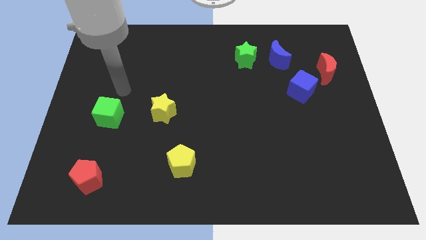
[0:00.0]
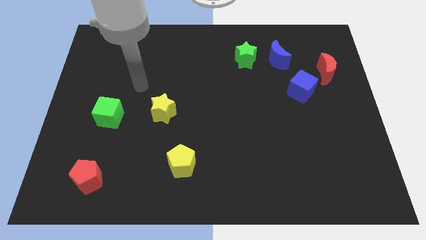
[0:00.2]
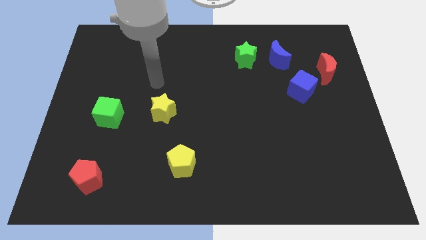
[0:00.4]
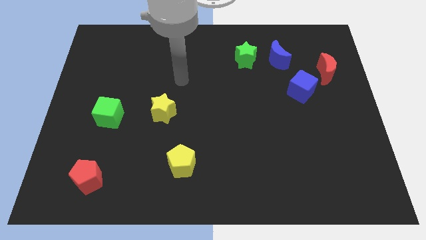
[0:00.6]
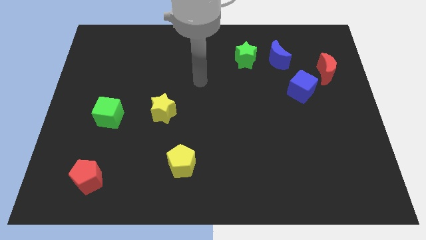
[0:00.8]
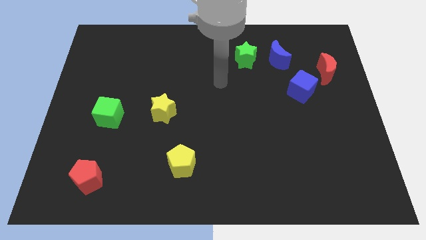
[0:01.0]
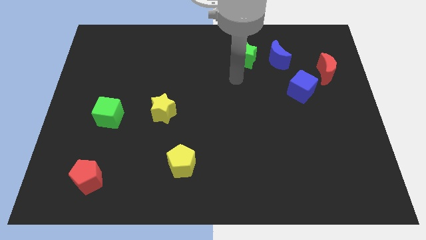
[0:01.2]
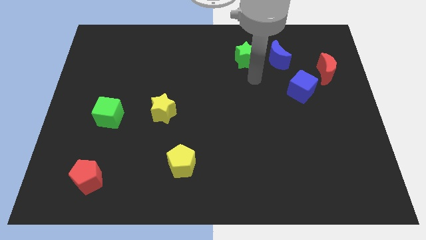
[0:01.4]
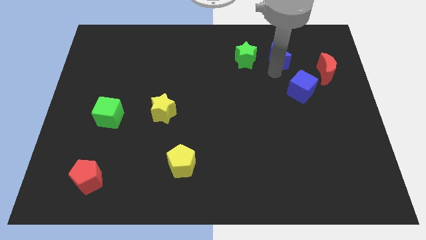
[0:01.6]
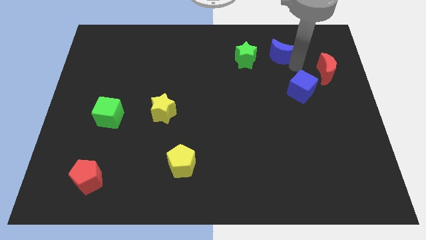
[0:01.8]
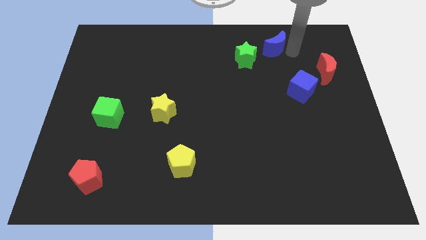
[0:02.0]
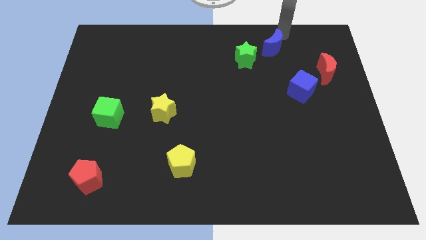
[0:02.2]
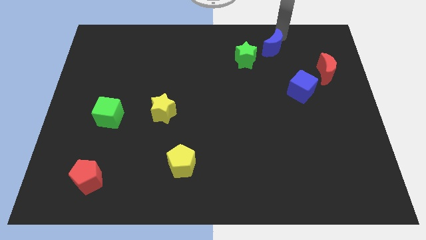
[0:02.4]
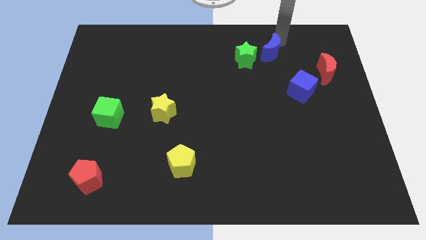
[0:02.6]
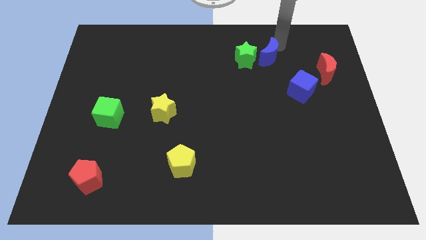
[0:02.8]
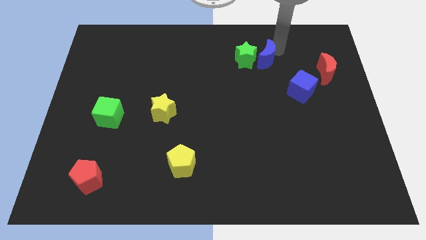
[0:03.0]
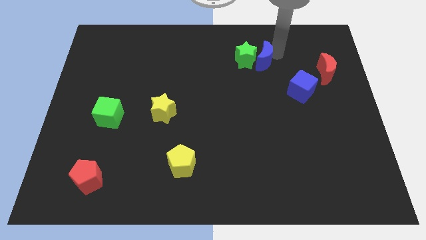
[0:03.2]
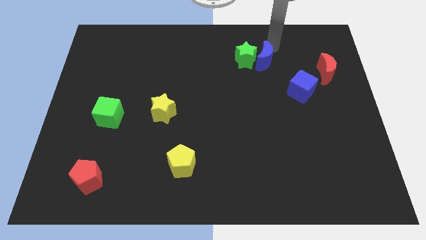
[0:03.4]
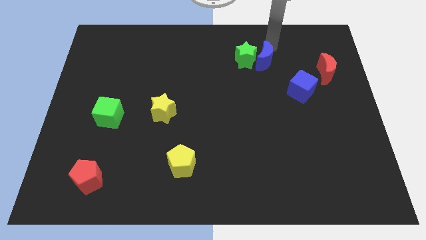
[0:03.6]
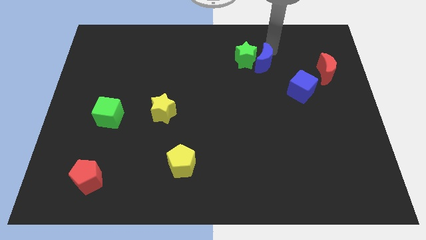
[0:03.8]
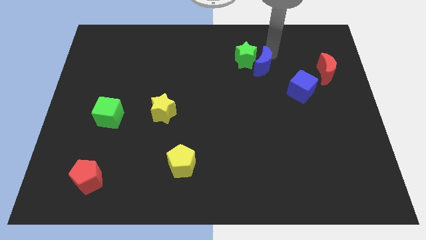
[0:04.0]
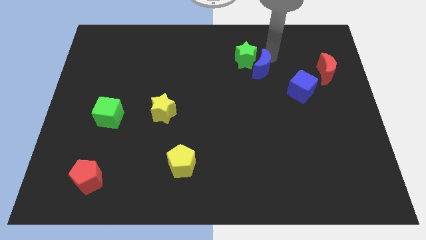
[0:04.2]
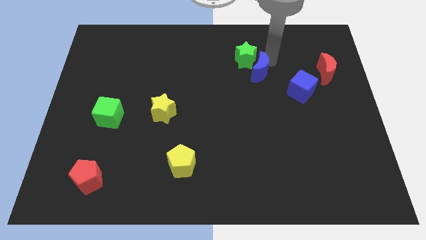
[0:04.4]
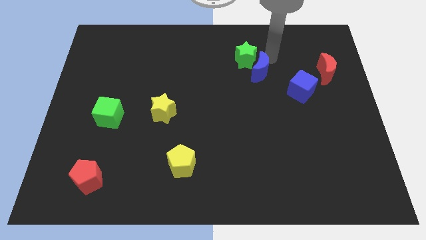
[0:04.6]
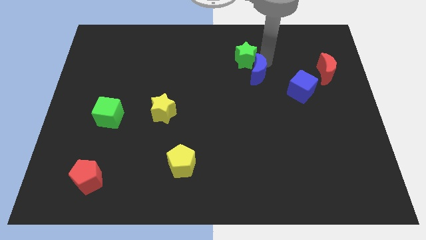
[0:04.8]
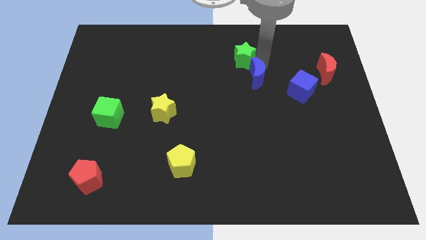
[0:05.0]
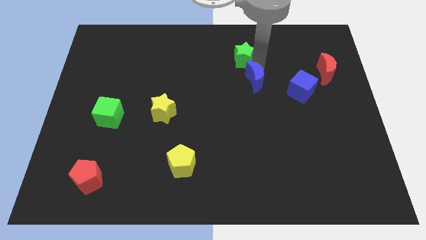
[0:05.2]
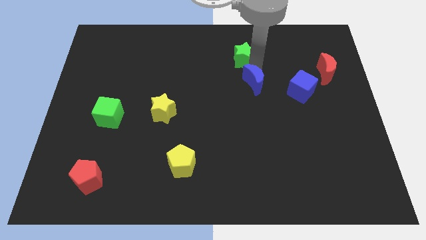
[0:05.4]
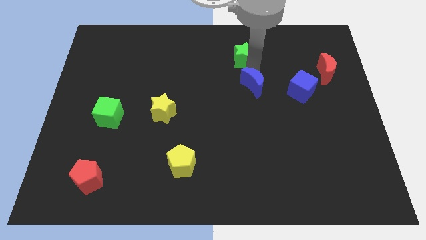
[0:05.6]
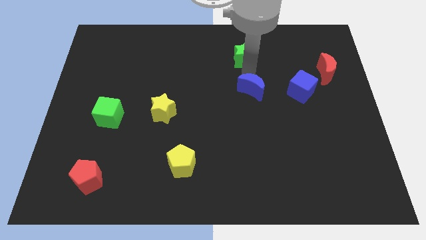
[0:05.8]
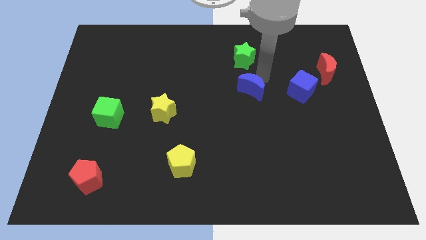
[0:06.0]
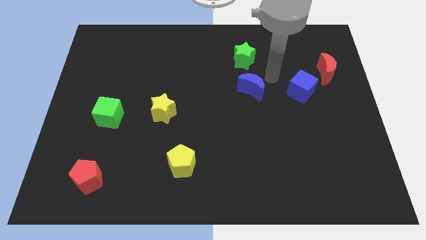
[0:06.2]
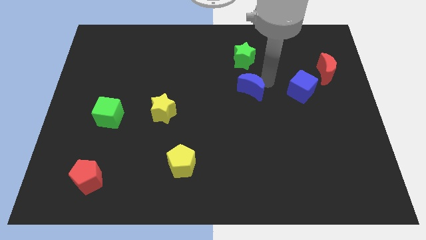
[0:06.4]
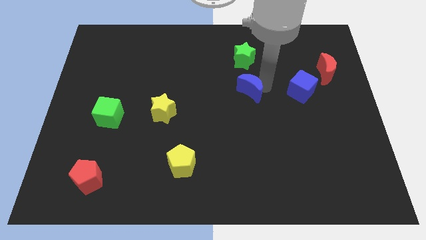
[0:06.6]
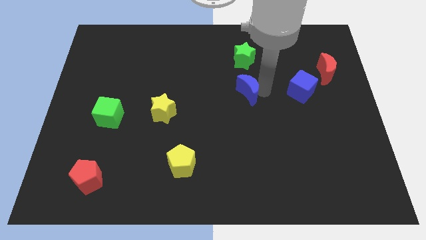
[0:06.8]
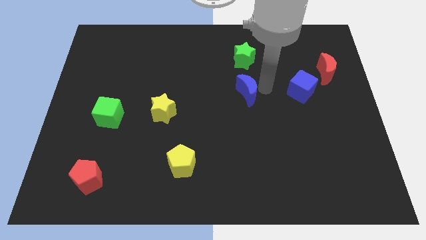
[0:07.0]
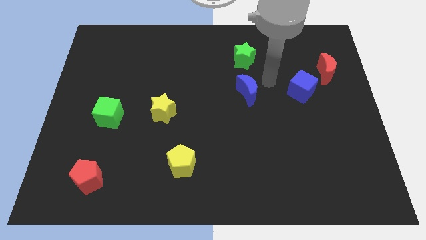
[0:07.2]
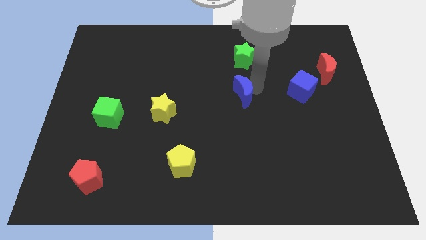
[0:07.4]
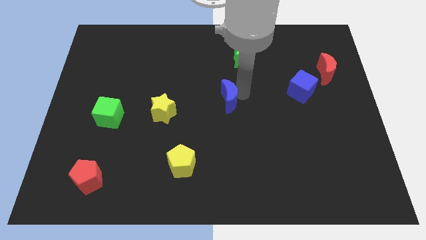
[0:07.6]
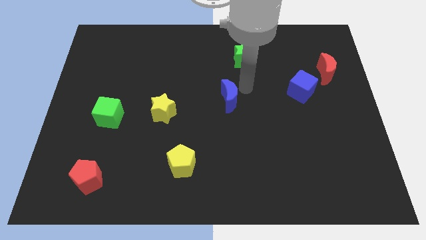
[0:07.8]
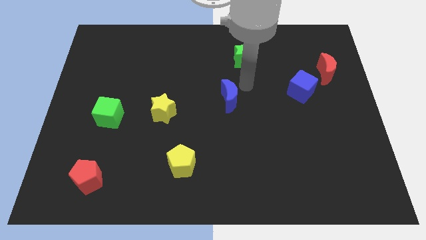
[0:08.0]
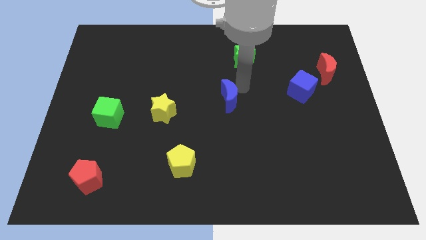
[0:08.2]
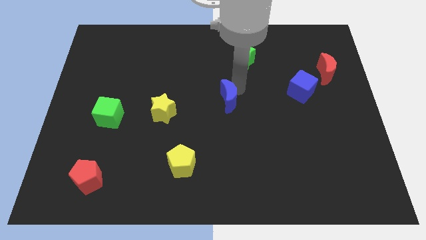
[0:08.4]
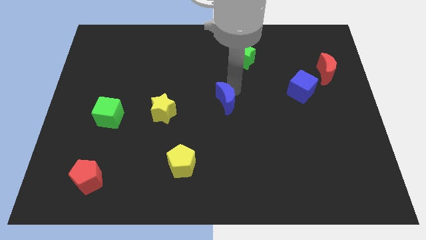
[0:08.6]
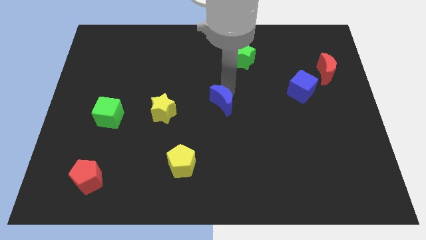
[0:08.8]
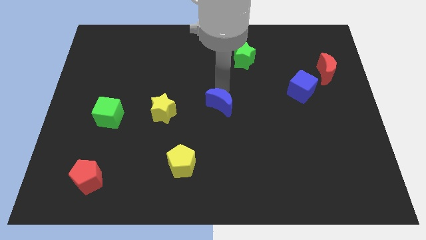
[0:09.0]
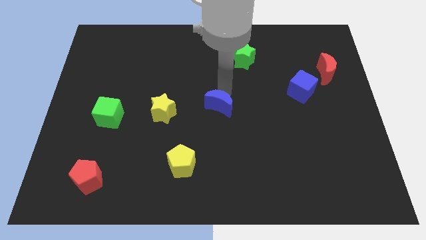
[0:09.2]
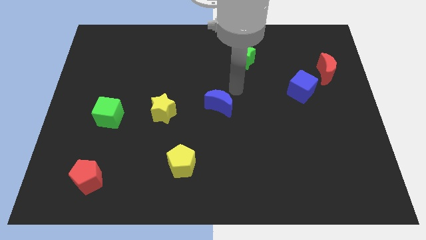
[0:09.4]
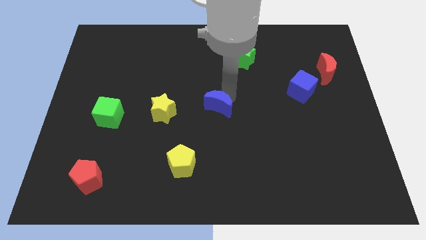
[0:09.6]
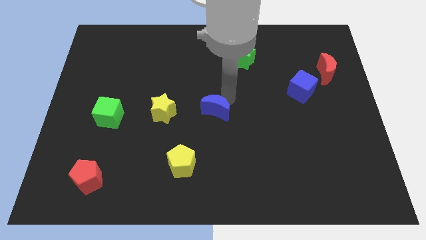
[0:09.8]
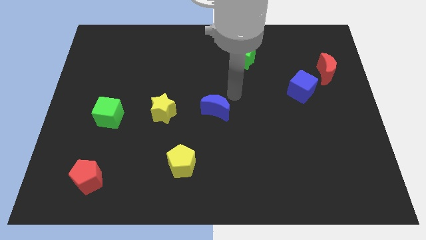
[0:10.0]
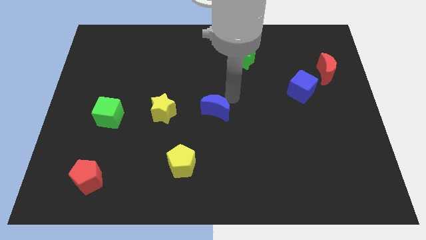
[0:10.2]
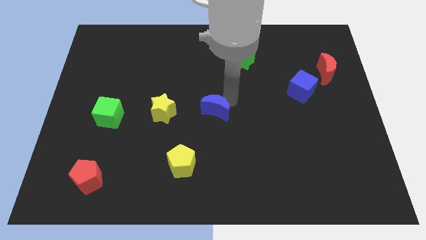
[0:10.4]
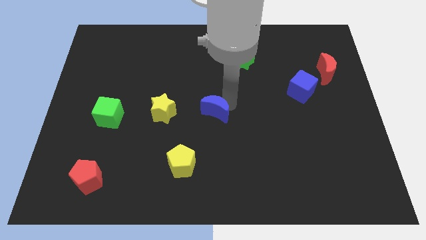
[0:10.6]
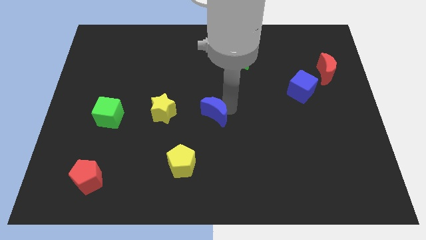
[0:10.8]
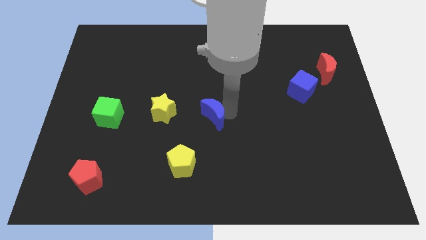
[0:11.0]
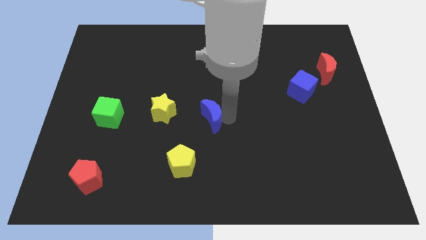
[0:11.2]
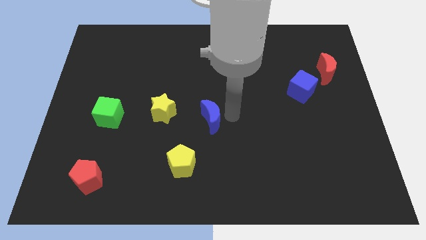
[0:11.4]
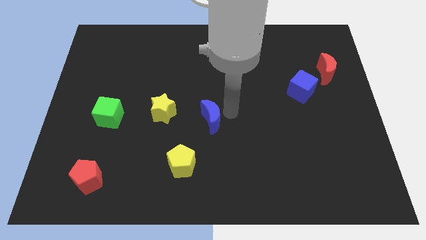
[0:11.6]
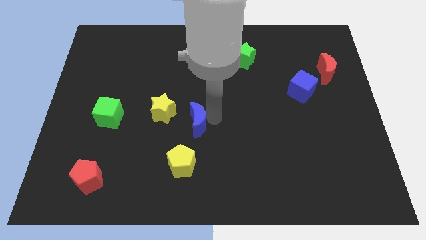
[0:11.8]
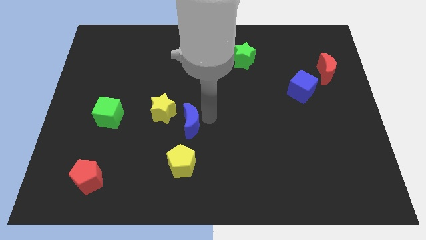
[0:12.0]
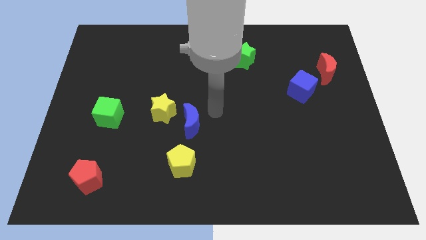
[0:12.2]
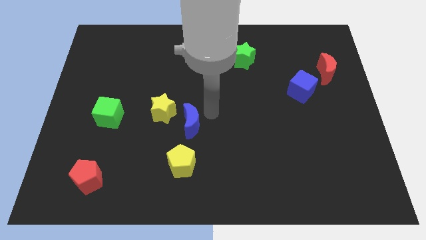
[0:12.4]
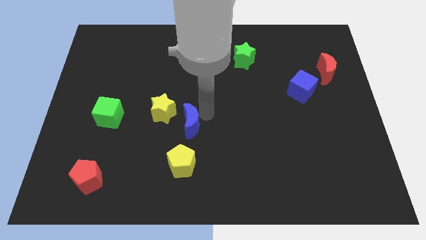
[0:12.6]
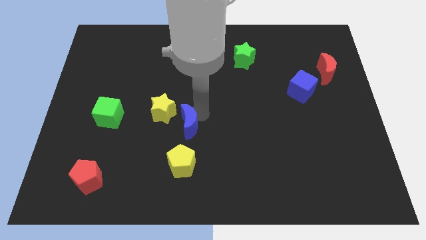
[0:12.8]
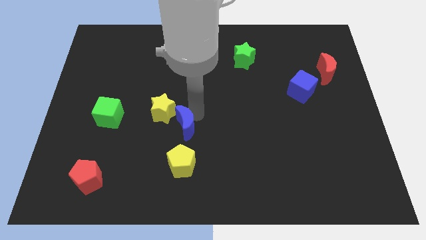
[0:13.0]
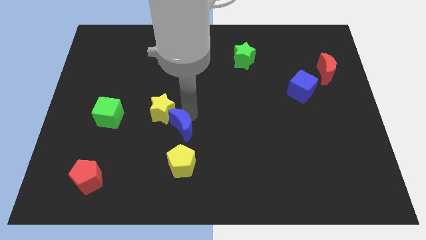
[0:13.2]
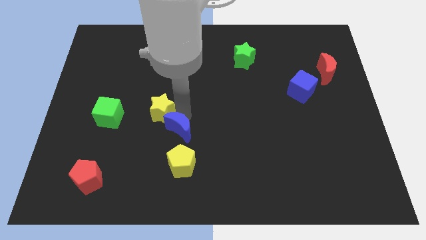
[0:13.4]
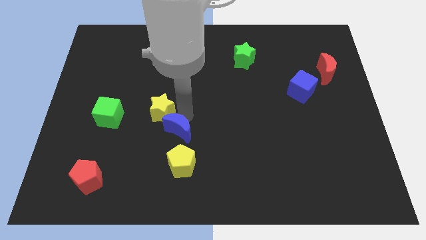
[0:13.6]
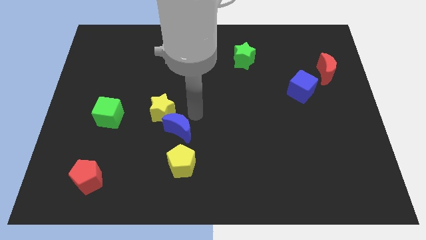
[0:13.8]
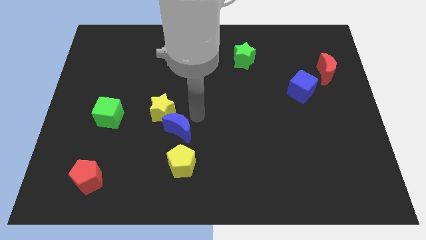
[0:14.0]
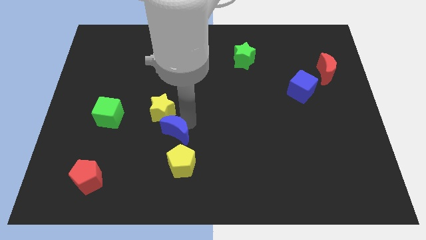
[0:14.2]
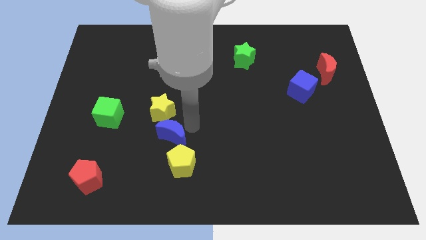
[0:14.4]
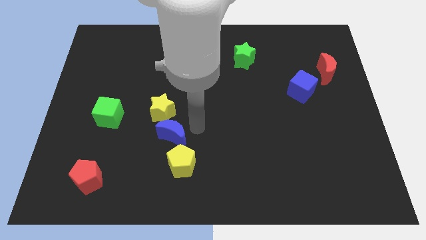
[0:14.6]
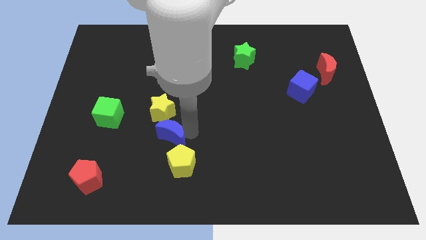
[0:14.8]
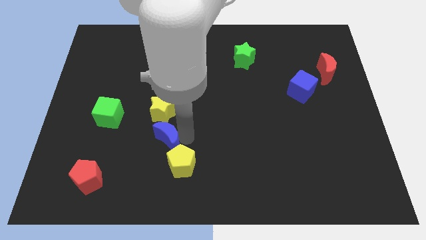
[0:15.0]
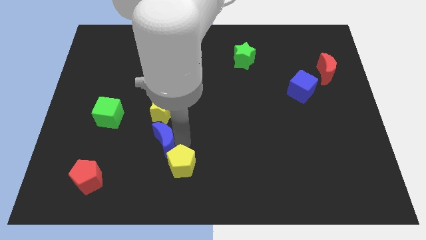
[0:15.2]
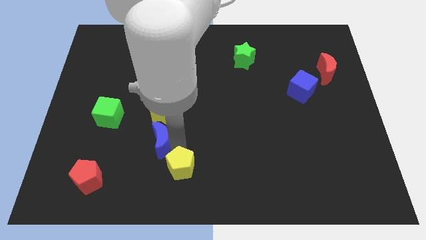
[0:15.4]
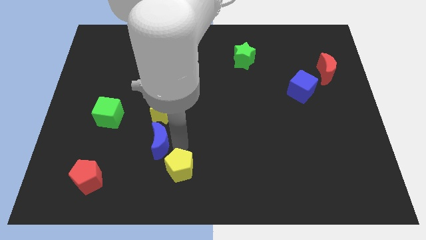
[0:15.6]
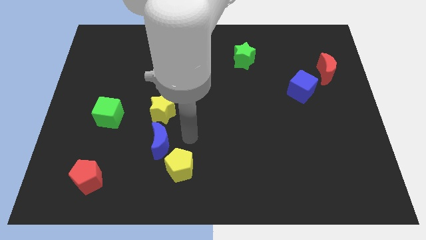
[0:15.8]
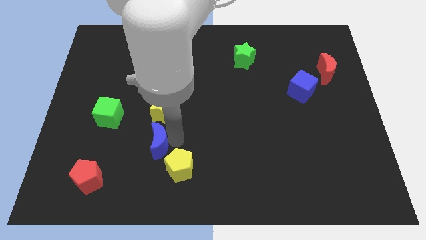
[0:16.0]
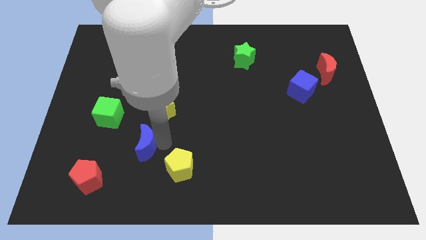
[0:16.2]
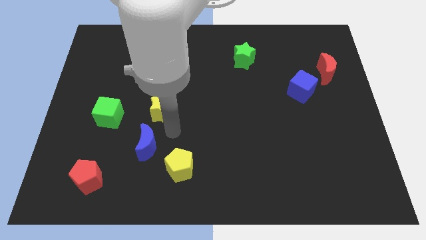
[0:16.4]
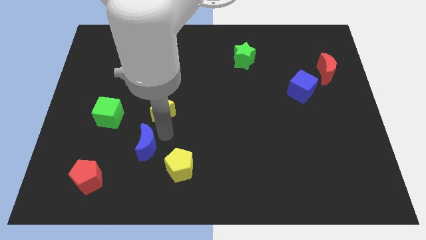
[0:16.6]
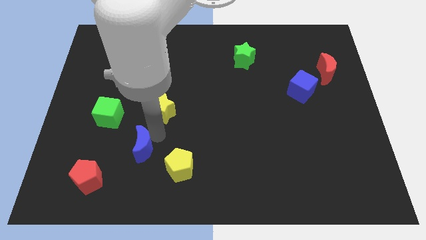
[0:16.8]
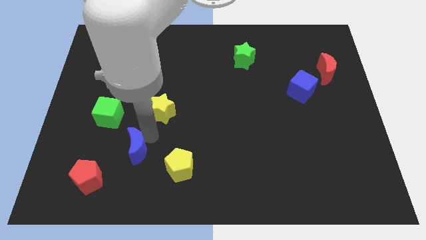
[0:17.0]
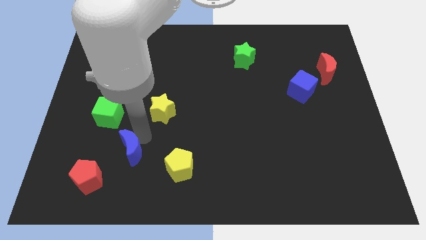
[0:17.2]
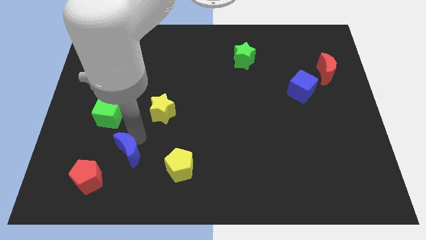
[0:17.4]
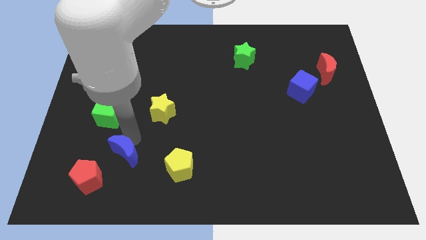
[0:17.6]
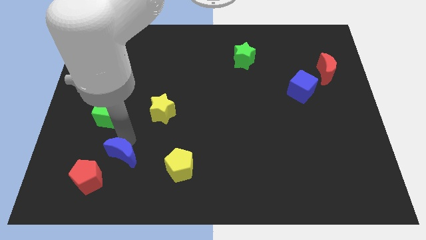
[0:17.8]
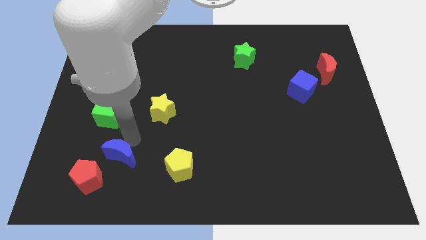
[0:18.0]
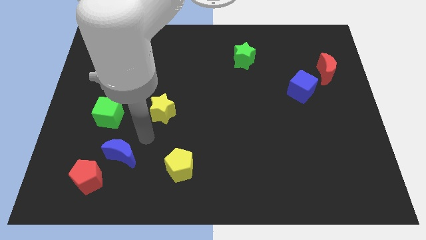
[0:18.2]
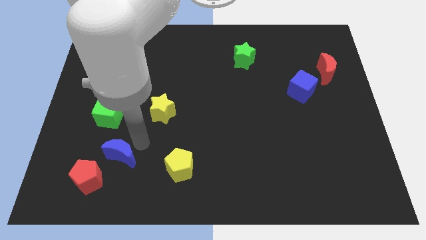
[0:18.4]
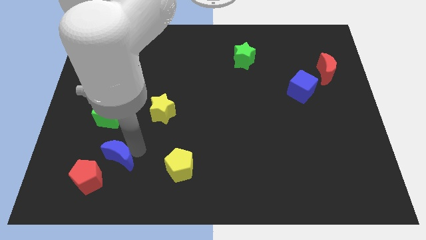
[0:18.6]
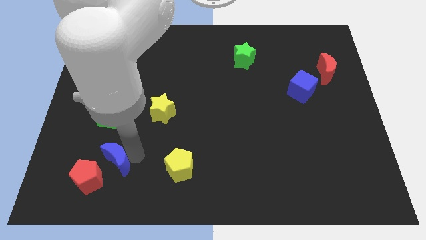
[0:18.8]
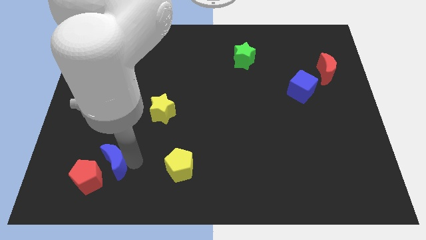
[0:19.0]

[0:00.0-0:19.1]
push the blue moon next to the red pentagon
